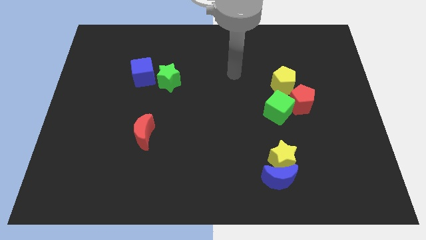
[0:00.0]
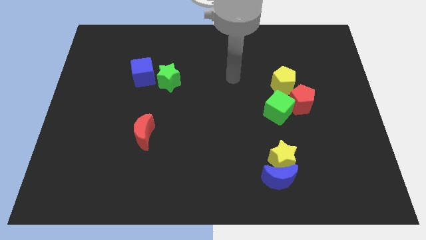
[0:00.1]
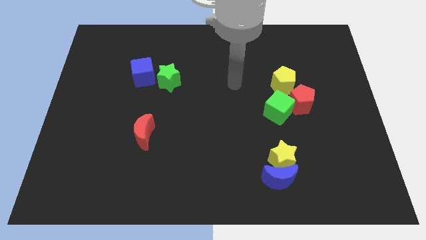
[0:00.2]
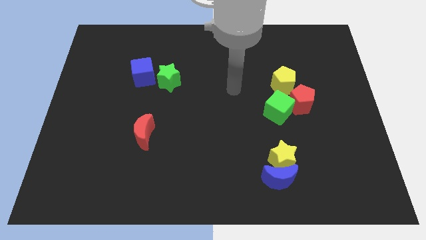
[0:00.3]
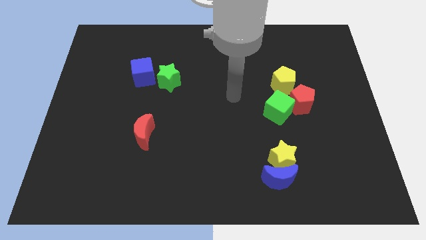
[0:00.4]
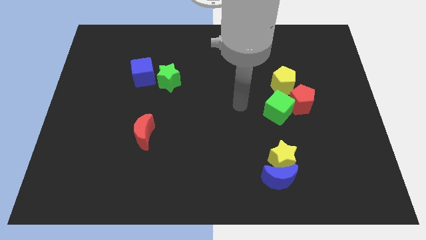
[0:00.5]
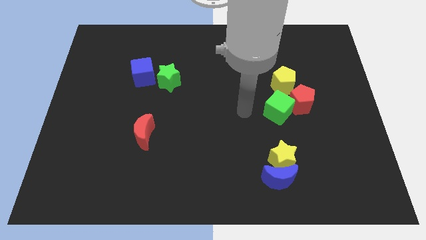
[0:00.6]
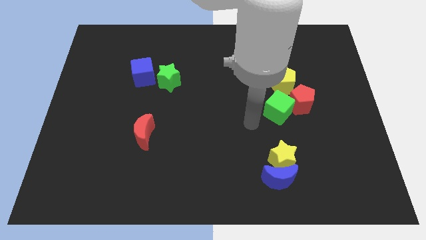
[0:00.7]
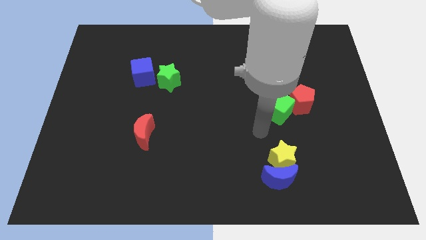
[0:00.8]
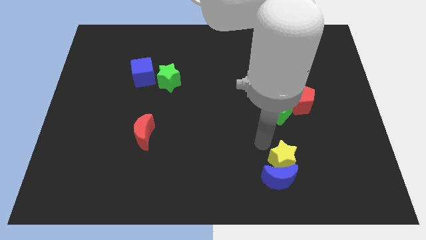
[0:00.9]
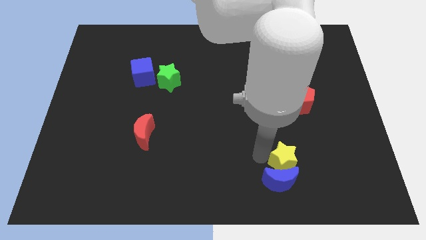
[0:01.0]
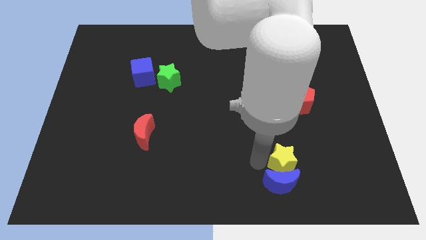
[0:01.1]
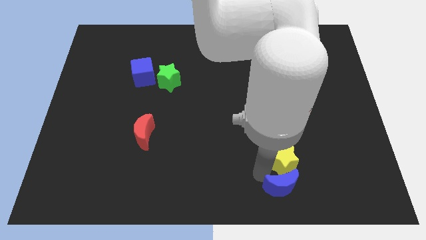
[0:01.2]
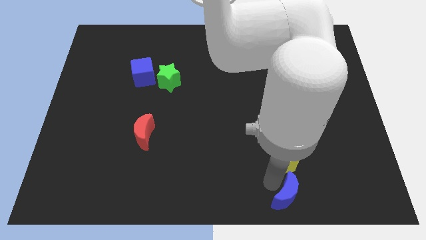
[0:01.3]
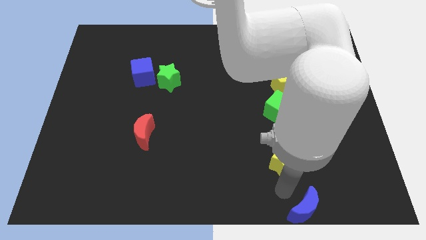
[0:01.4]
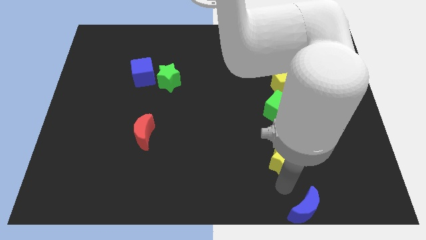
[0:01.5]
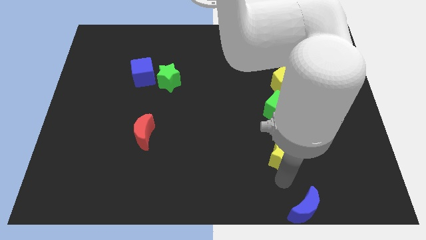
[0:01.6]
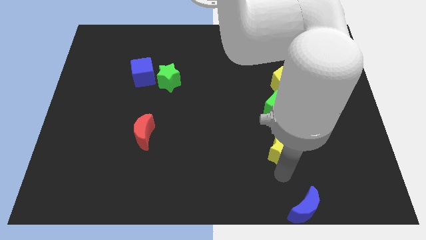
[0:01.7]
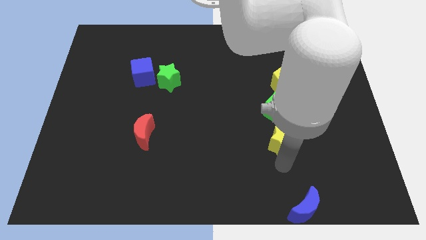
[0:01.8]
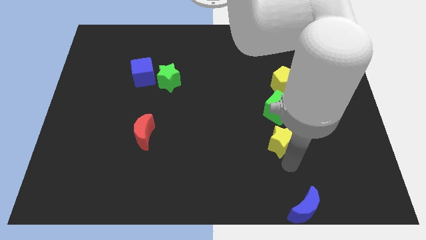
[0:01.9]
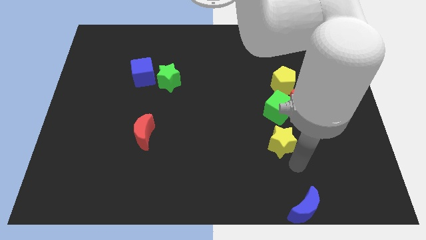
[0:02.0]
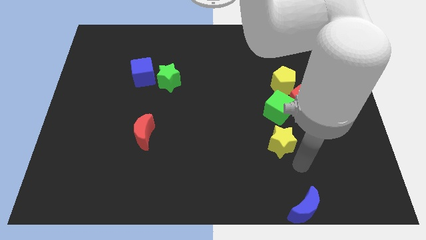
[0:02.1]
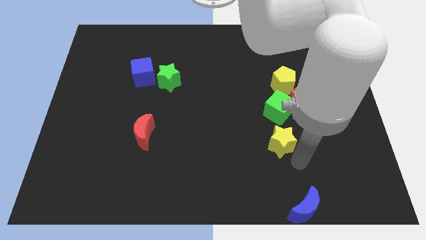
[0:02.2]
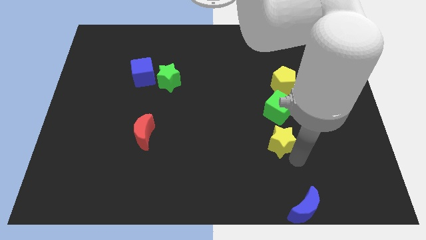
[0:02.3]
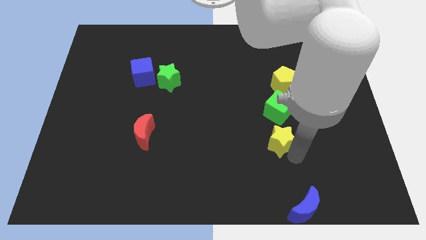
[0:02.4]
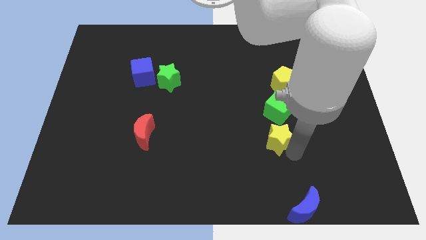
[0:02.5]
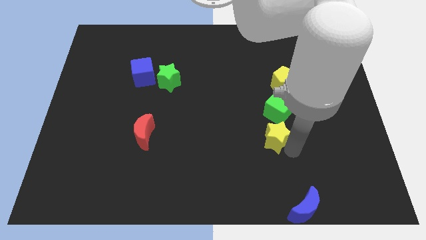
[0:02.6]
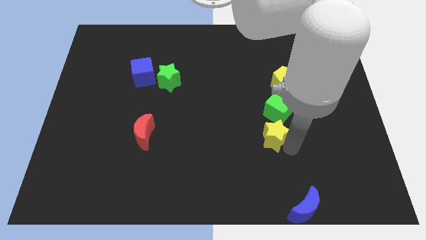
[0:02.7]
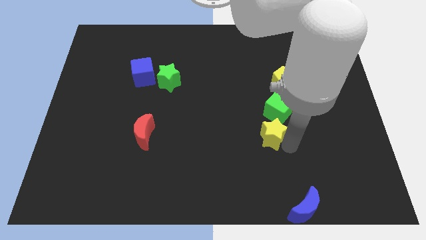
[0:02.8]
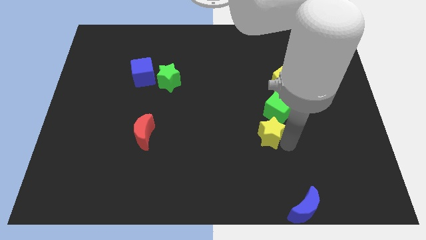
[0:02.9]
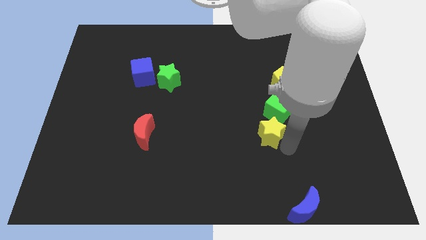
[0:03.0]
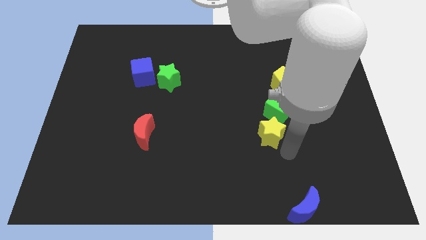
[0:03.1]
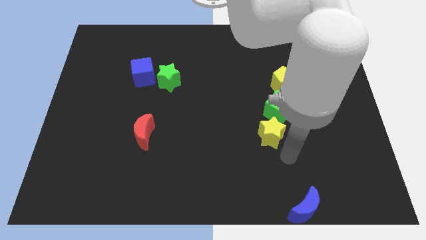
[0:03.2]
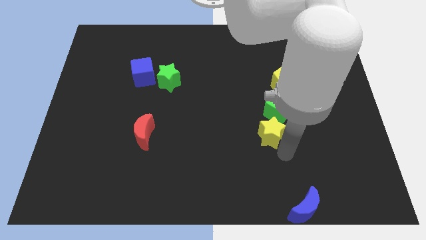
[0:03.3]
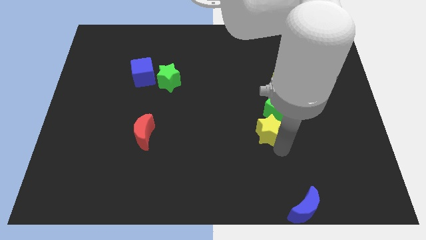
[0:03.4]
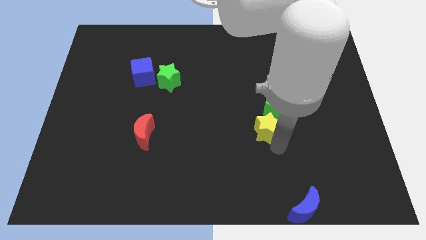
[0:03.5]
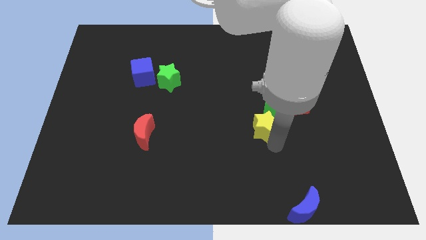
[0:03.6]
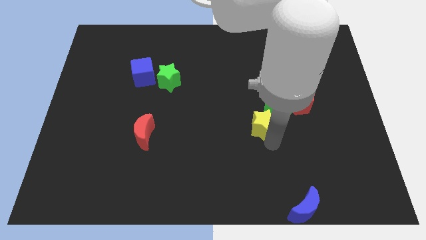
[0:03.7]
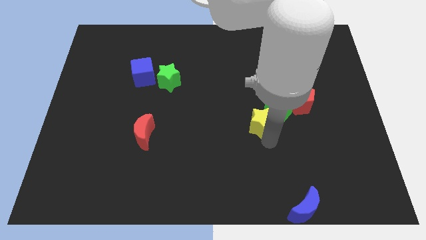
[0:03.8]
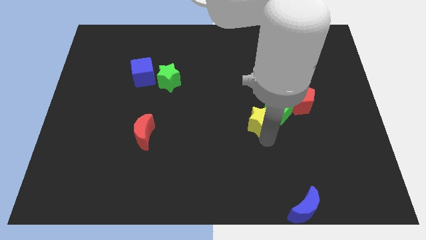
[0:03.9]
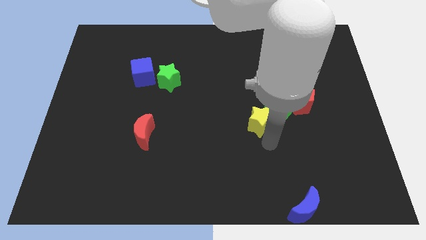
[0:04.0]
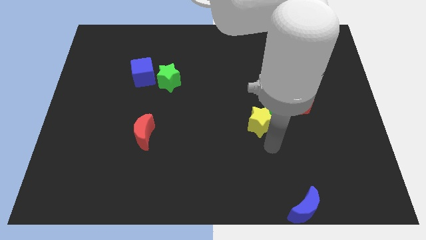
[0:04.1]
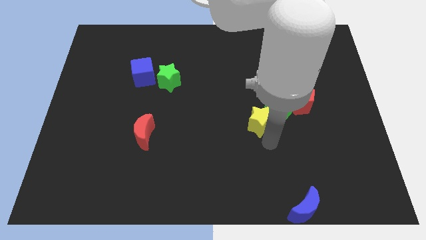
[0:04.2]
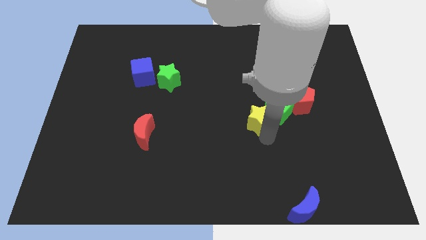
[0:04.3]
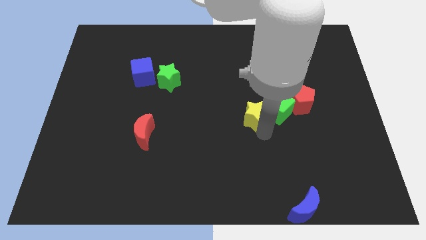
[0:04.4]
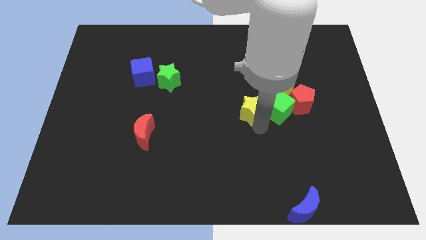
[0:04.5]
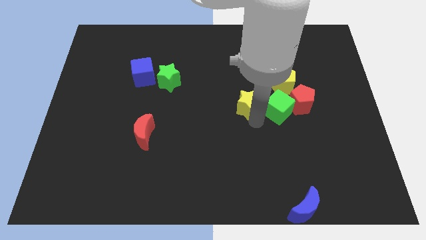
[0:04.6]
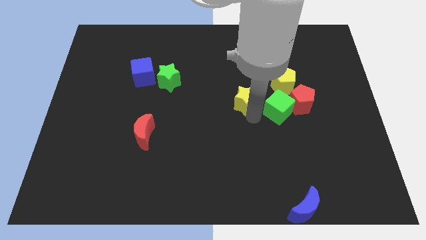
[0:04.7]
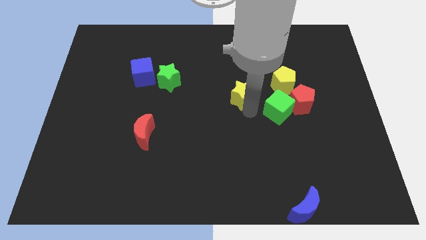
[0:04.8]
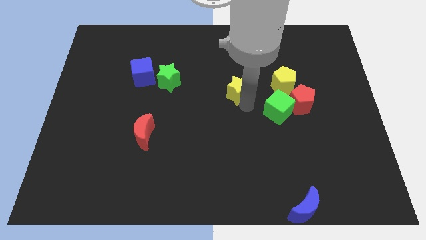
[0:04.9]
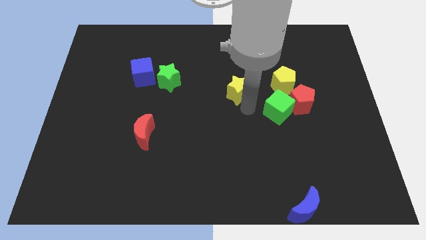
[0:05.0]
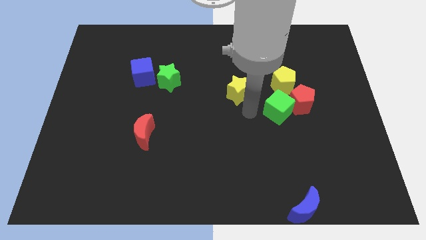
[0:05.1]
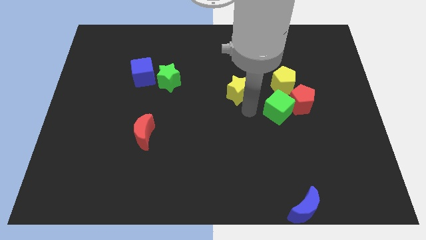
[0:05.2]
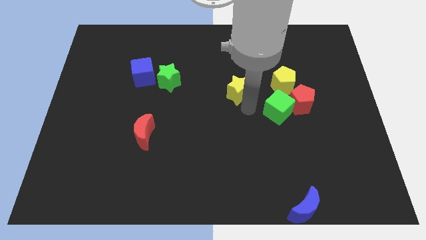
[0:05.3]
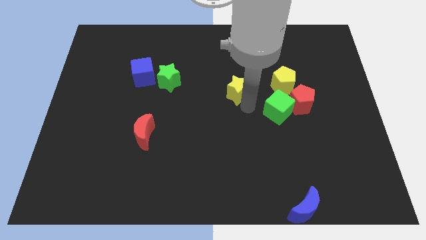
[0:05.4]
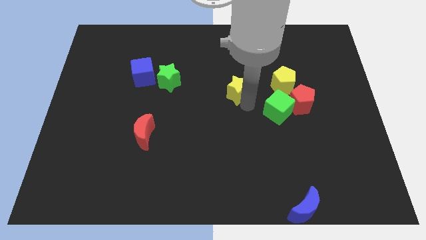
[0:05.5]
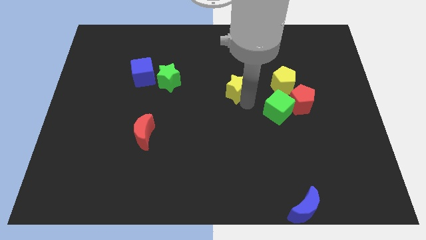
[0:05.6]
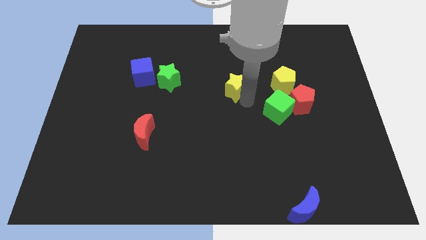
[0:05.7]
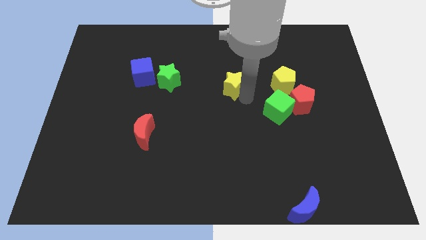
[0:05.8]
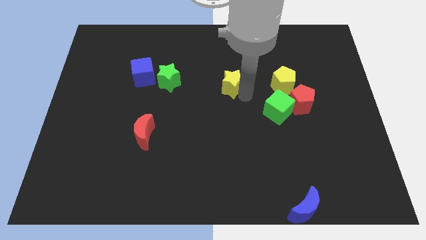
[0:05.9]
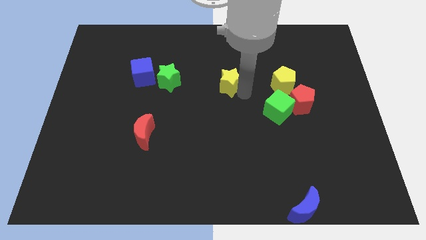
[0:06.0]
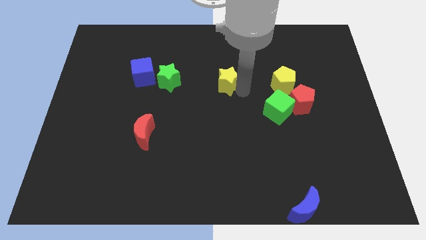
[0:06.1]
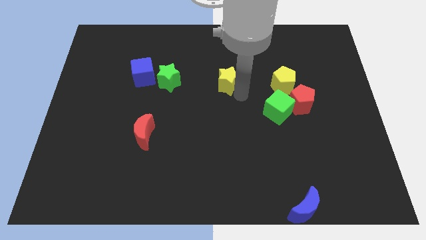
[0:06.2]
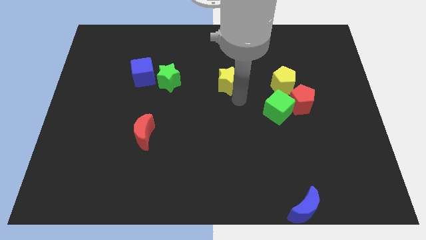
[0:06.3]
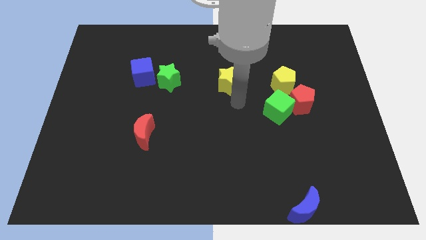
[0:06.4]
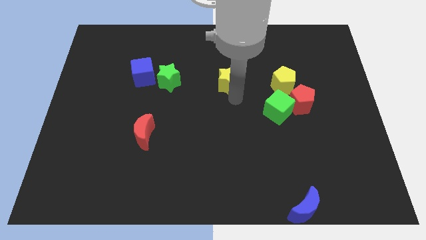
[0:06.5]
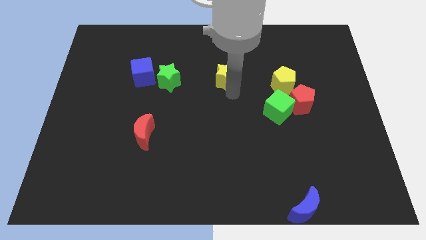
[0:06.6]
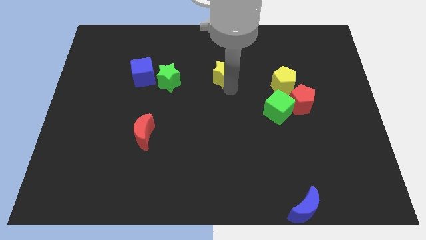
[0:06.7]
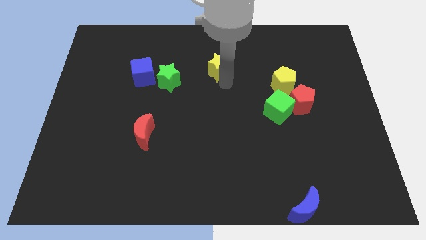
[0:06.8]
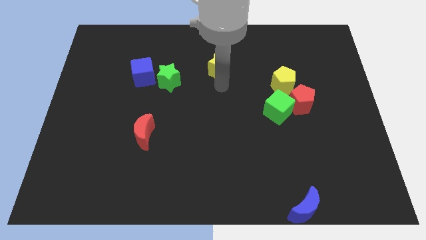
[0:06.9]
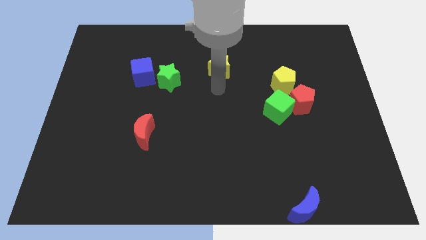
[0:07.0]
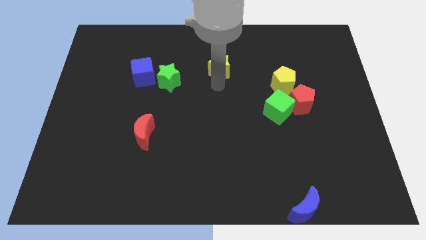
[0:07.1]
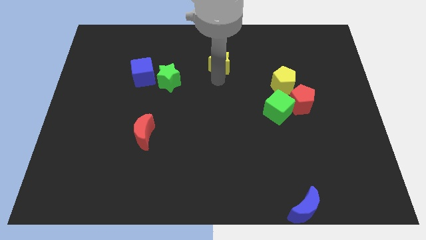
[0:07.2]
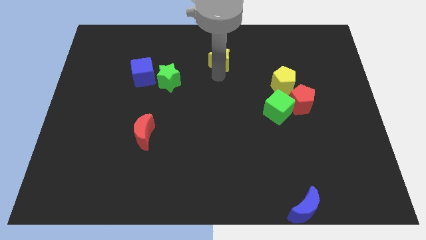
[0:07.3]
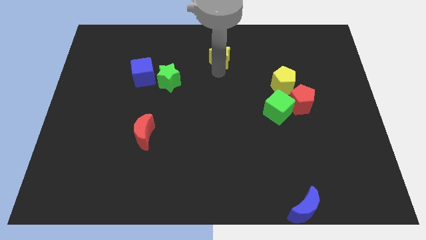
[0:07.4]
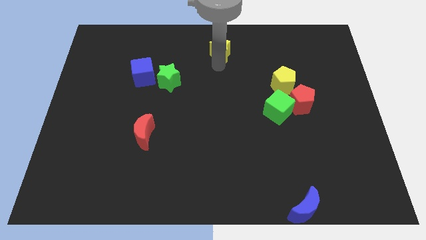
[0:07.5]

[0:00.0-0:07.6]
move the yellow star to the top side
